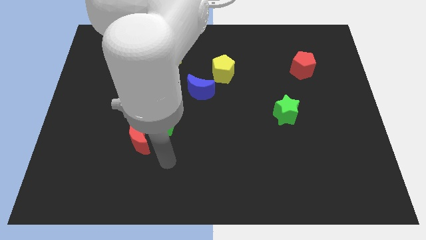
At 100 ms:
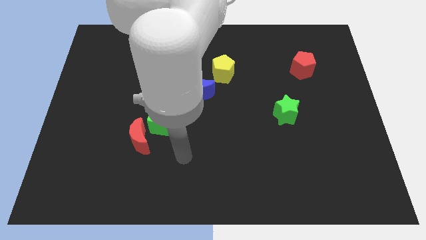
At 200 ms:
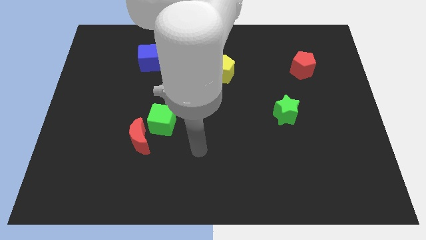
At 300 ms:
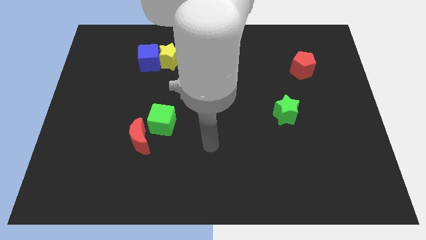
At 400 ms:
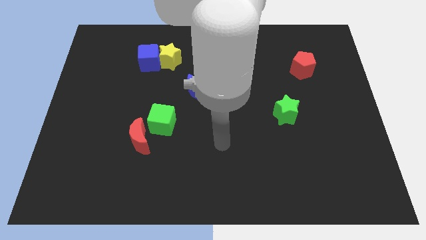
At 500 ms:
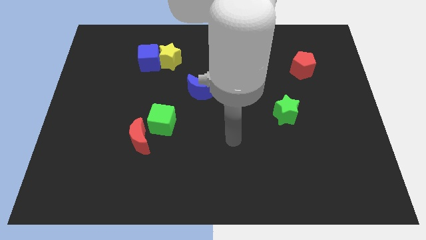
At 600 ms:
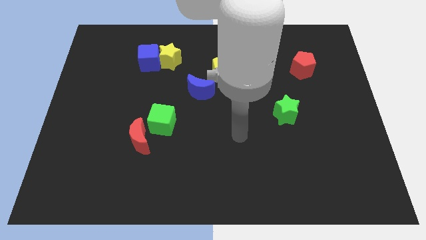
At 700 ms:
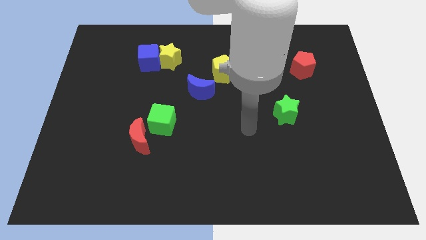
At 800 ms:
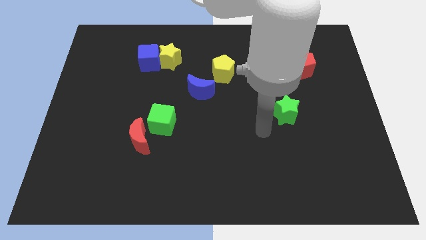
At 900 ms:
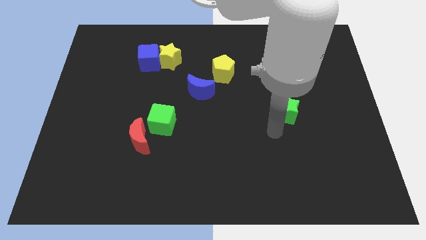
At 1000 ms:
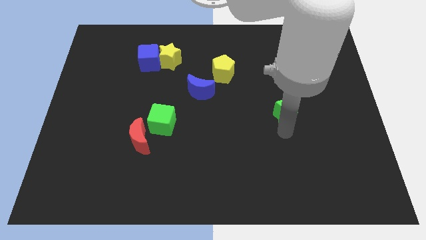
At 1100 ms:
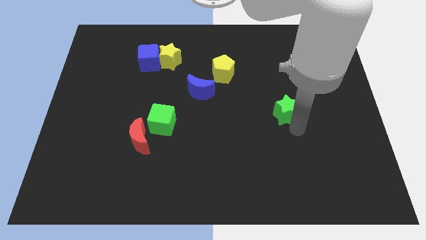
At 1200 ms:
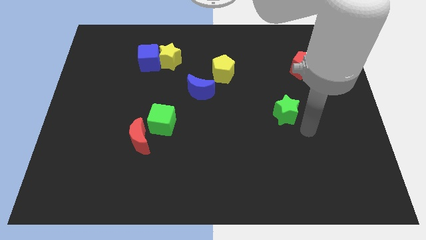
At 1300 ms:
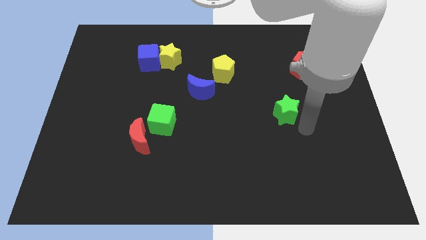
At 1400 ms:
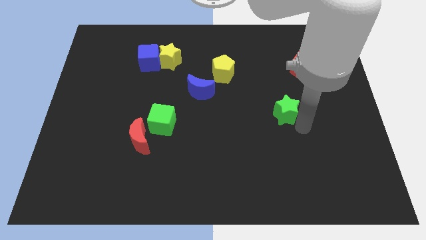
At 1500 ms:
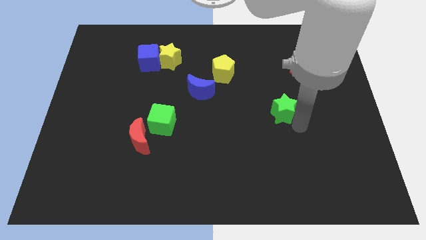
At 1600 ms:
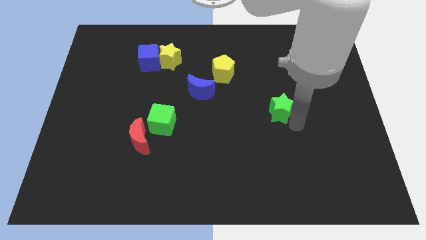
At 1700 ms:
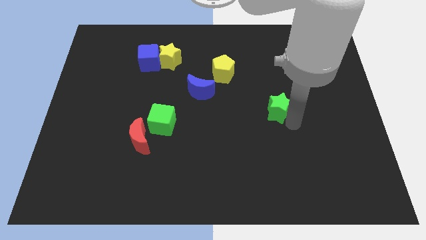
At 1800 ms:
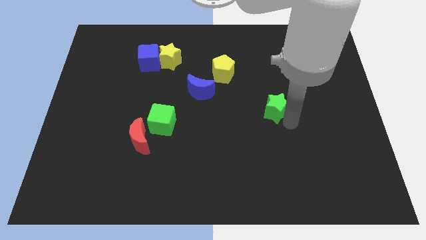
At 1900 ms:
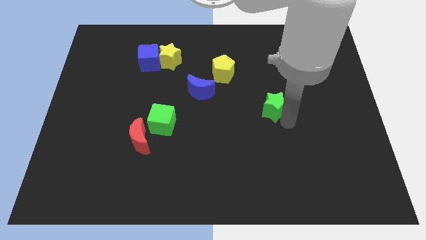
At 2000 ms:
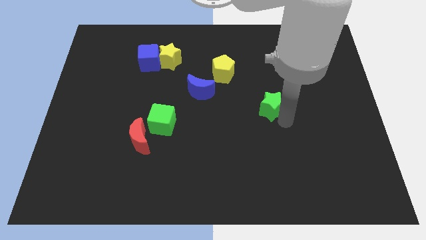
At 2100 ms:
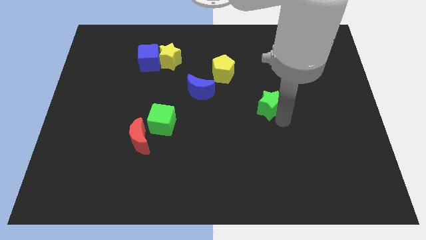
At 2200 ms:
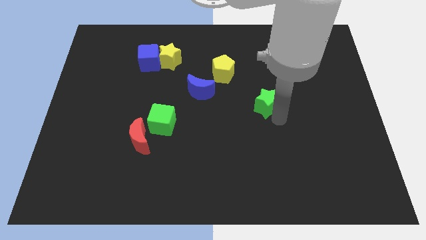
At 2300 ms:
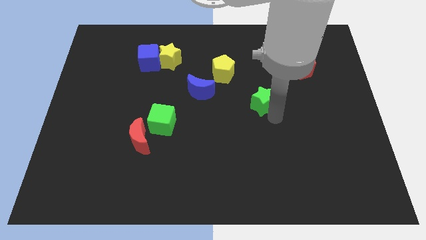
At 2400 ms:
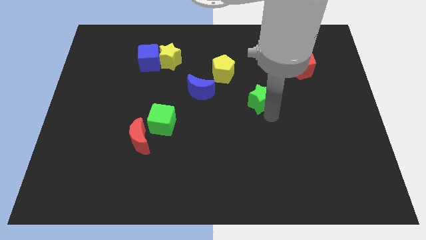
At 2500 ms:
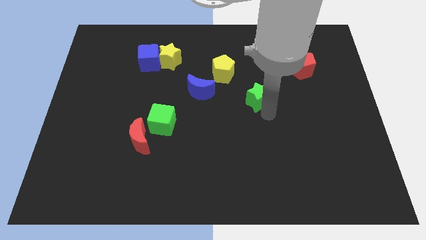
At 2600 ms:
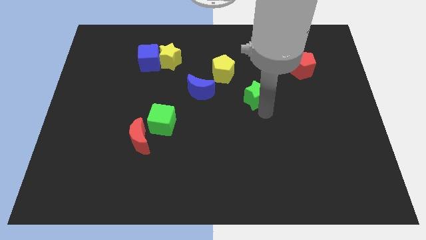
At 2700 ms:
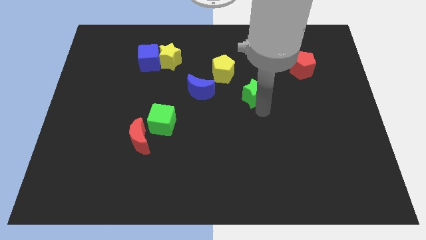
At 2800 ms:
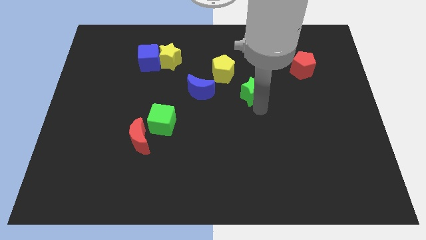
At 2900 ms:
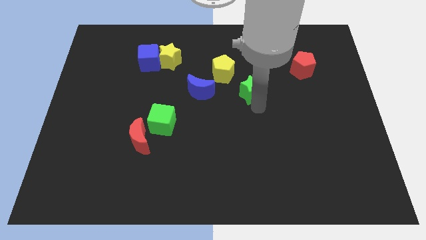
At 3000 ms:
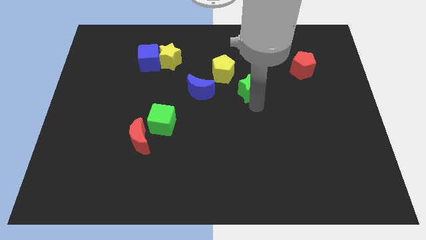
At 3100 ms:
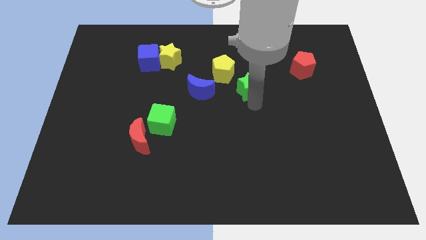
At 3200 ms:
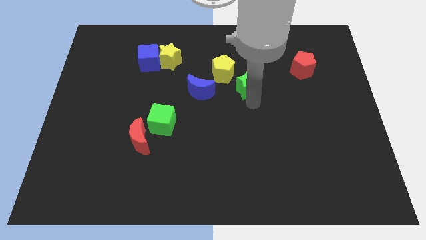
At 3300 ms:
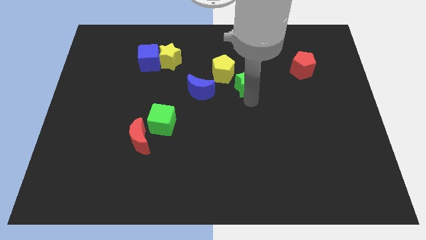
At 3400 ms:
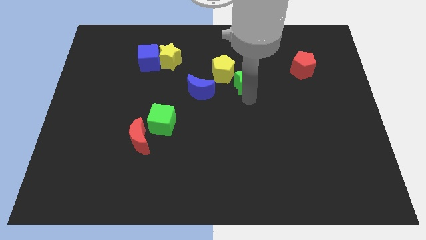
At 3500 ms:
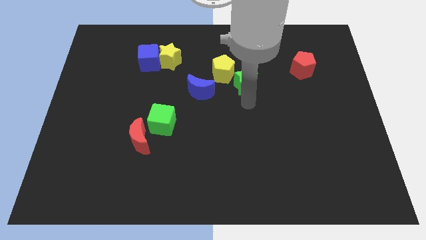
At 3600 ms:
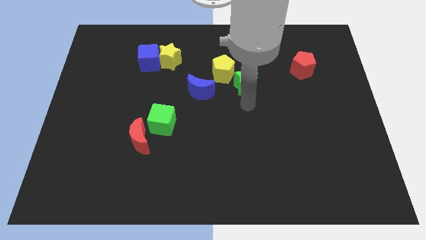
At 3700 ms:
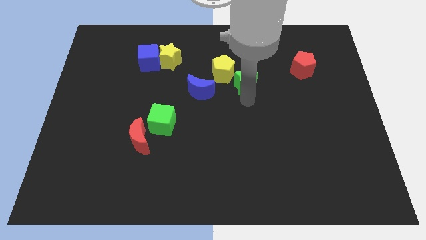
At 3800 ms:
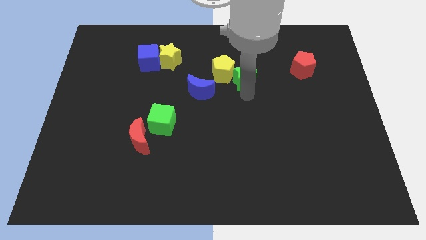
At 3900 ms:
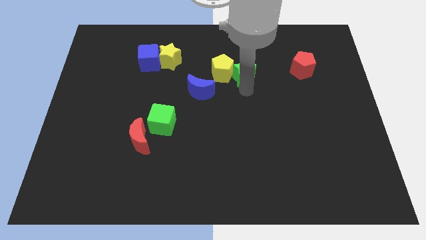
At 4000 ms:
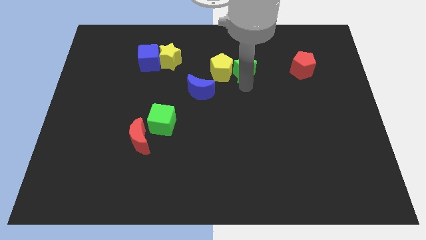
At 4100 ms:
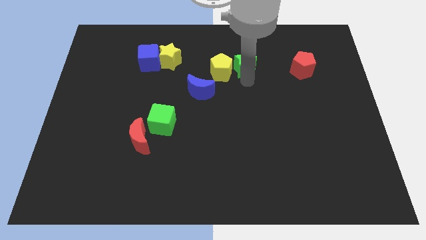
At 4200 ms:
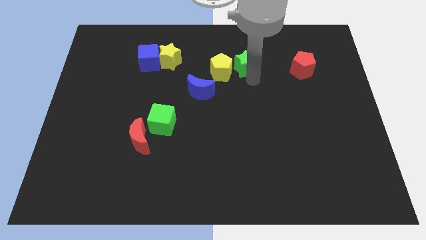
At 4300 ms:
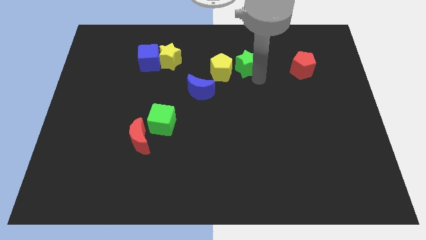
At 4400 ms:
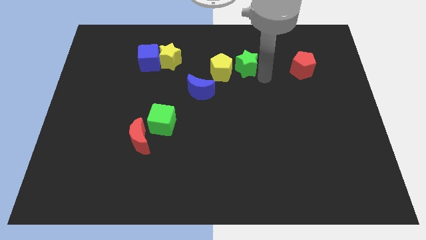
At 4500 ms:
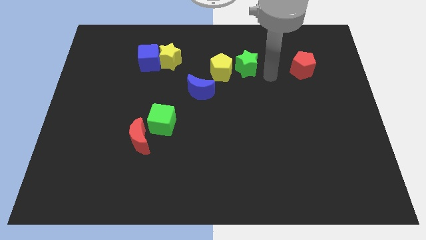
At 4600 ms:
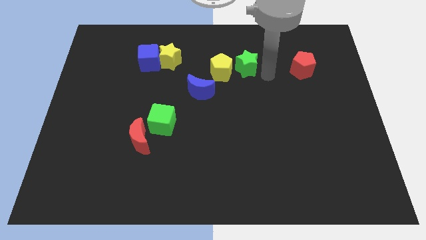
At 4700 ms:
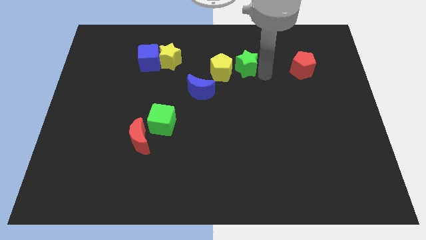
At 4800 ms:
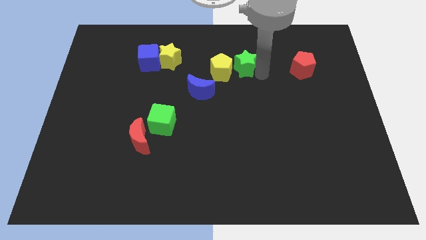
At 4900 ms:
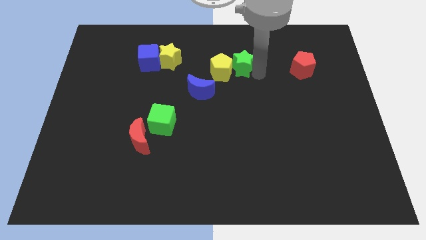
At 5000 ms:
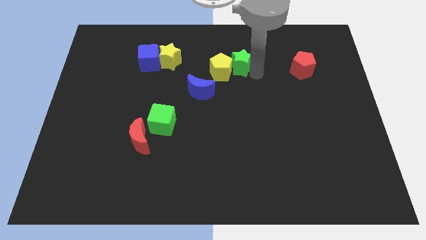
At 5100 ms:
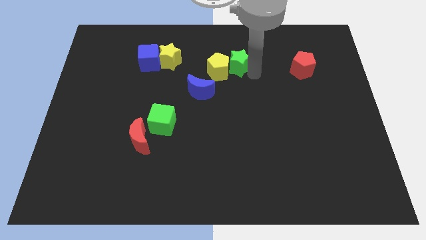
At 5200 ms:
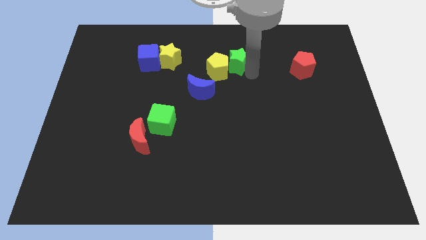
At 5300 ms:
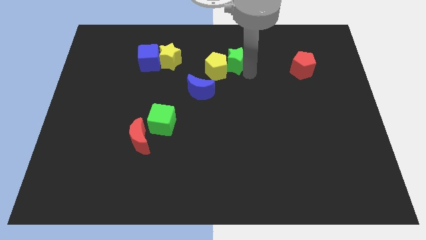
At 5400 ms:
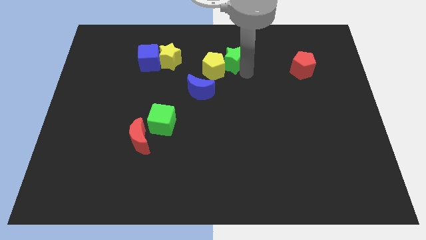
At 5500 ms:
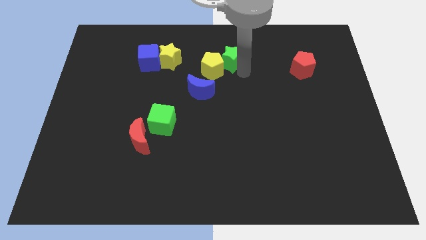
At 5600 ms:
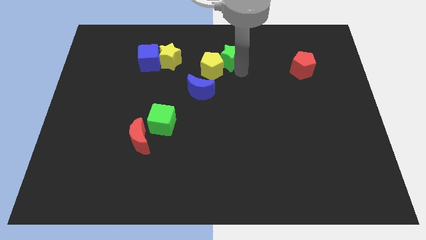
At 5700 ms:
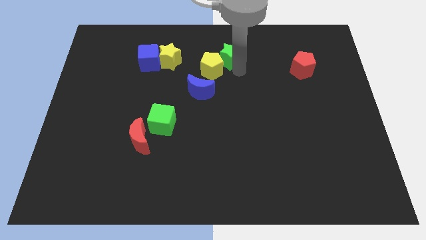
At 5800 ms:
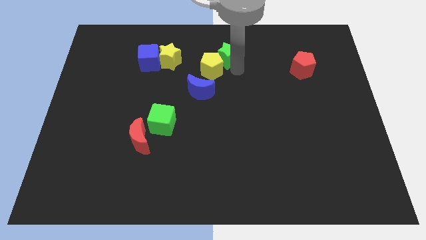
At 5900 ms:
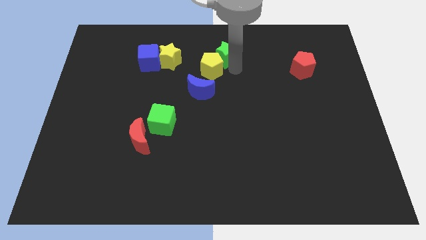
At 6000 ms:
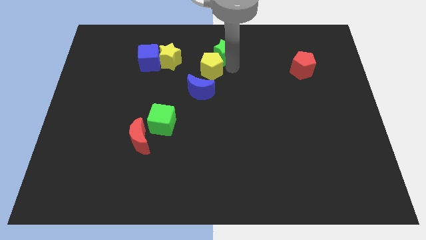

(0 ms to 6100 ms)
put the green star to the top
